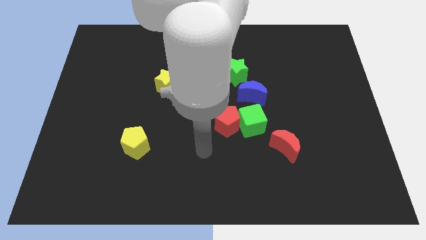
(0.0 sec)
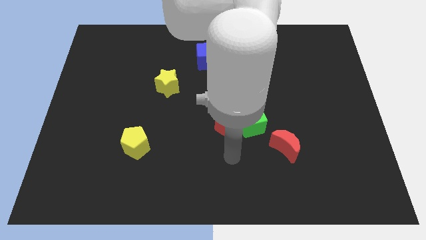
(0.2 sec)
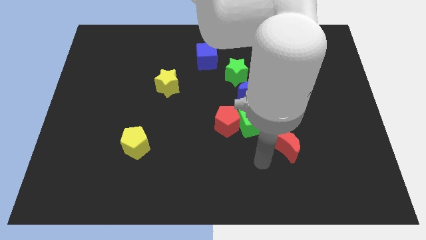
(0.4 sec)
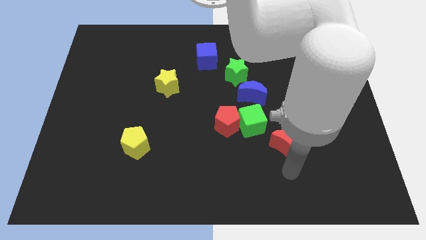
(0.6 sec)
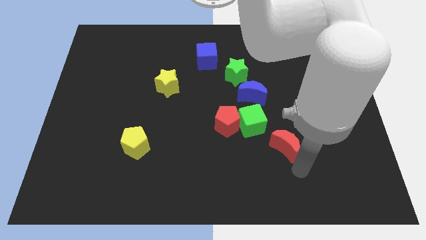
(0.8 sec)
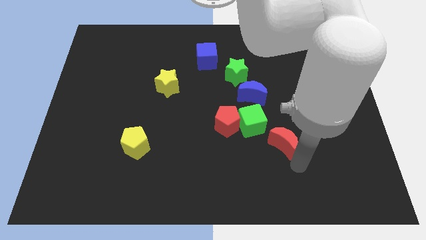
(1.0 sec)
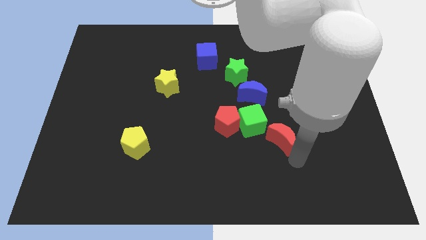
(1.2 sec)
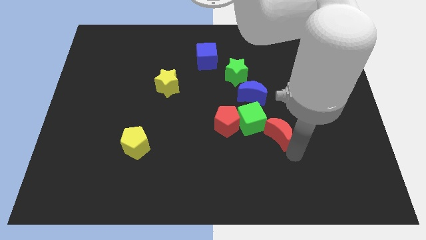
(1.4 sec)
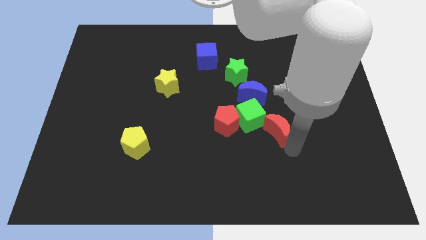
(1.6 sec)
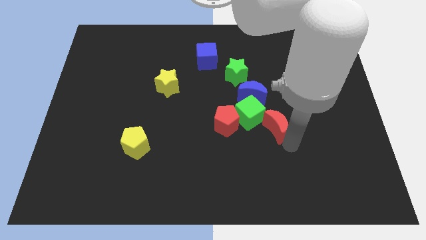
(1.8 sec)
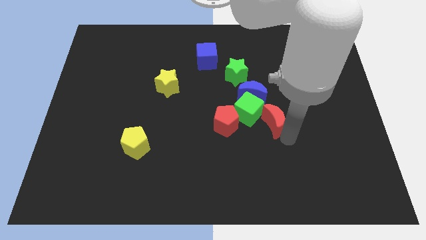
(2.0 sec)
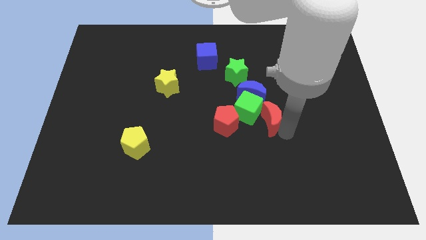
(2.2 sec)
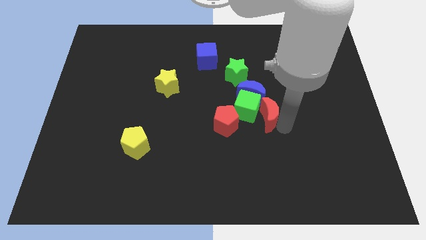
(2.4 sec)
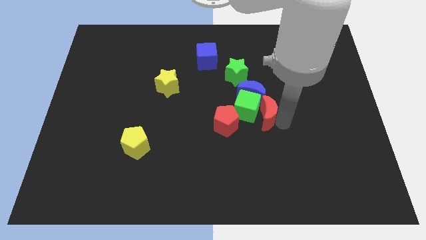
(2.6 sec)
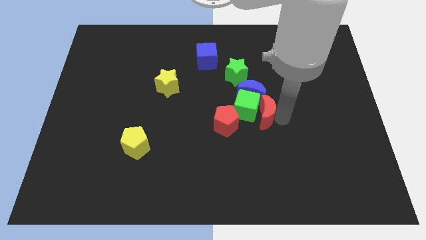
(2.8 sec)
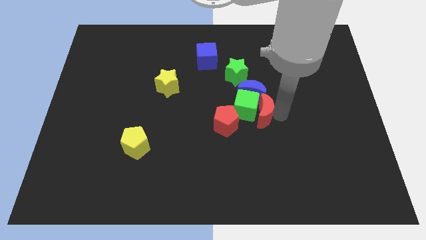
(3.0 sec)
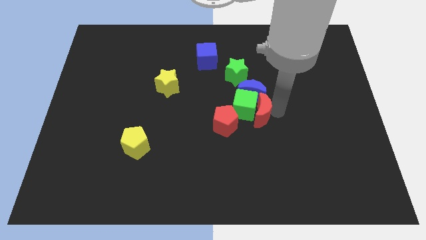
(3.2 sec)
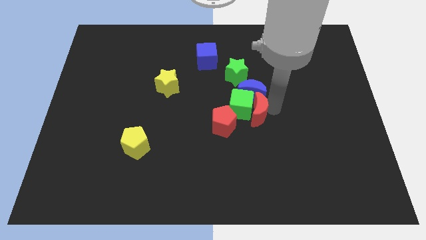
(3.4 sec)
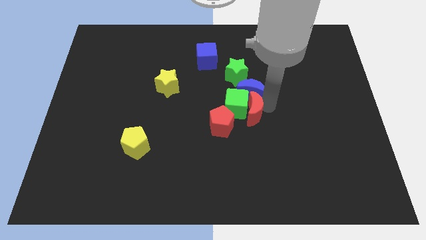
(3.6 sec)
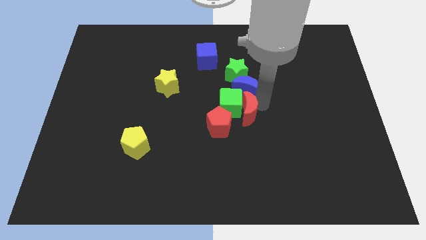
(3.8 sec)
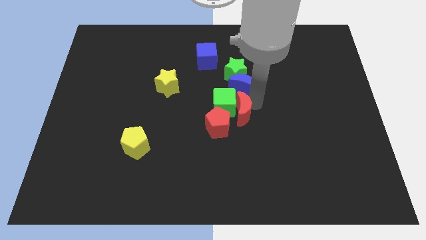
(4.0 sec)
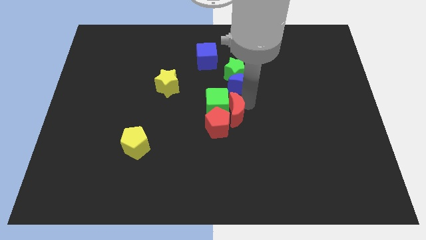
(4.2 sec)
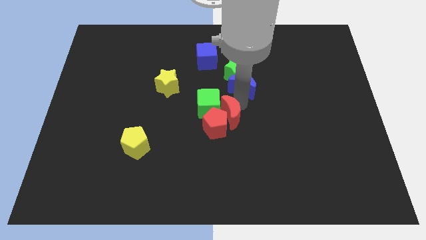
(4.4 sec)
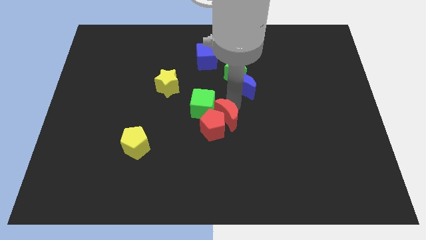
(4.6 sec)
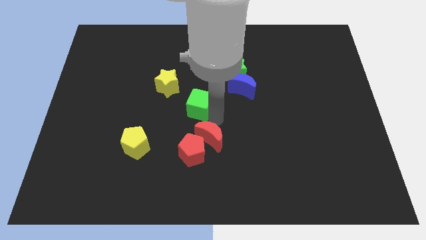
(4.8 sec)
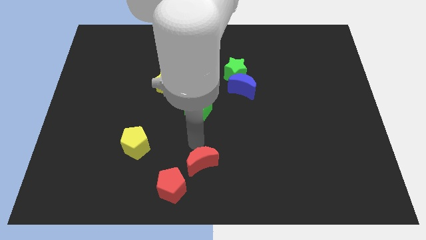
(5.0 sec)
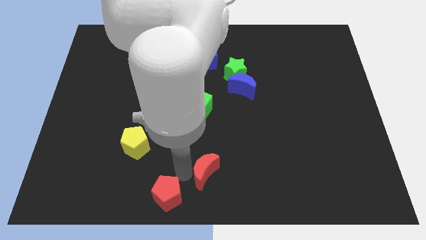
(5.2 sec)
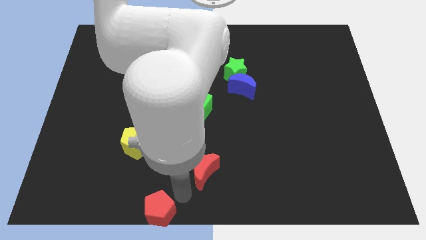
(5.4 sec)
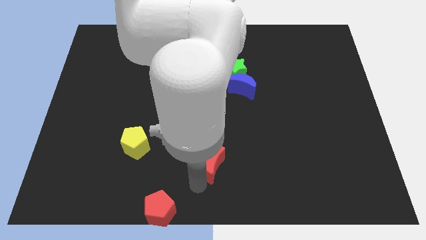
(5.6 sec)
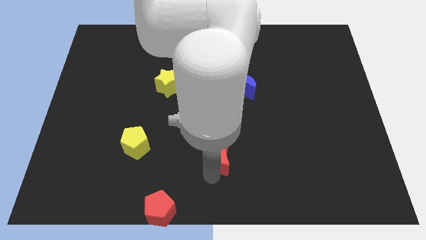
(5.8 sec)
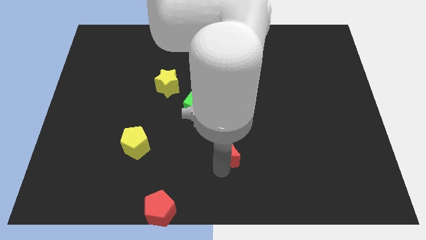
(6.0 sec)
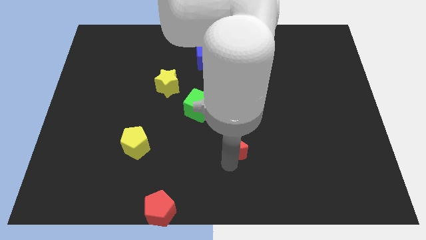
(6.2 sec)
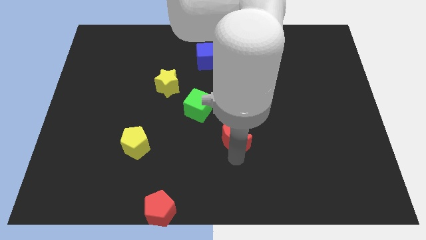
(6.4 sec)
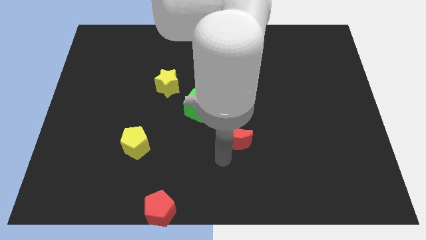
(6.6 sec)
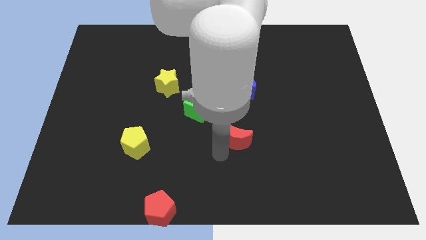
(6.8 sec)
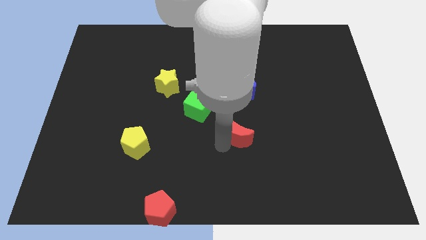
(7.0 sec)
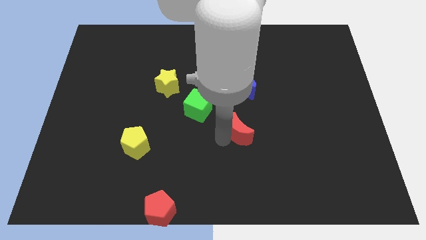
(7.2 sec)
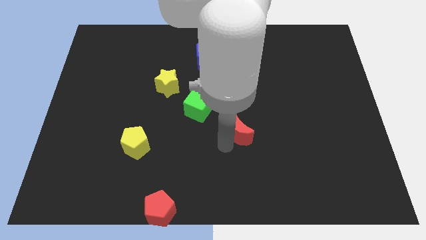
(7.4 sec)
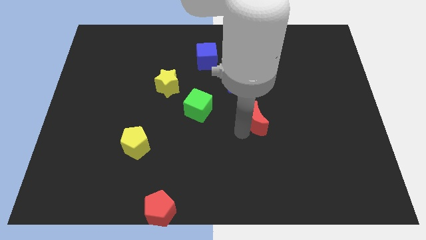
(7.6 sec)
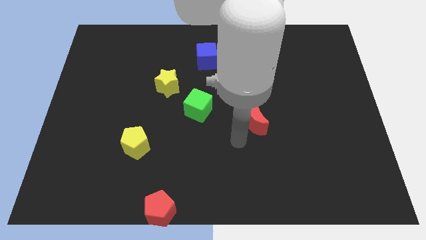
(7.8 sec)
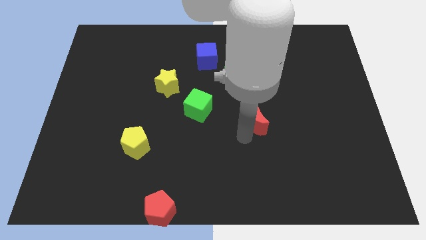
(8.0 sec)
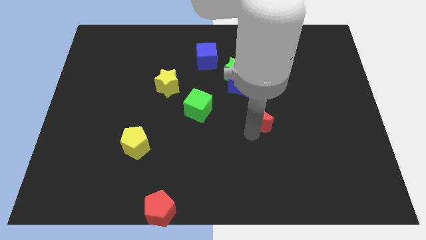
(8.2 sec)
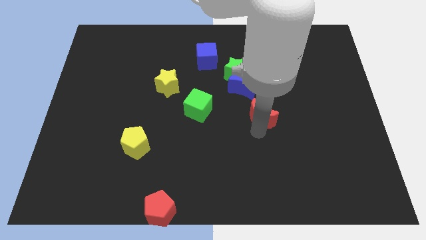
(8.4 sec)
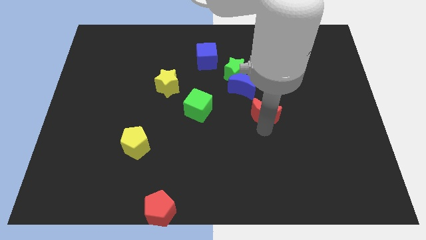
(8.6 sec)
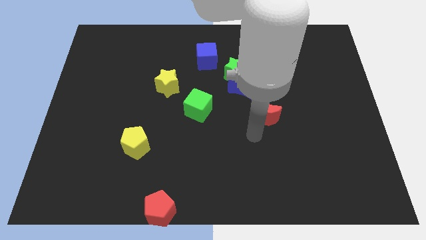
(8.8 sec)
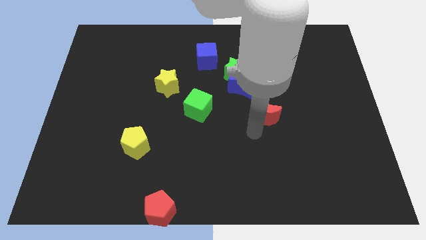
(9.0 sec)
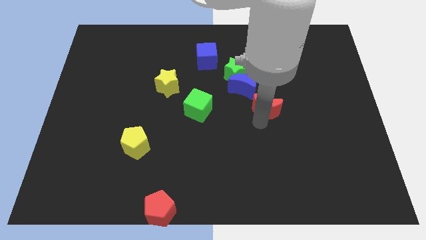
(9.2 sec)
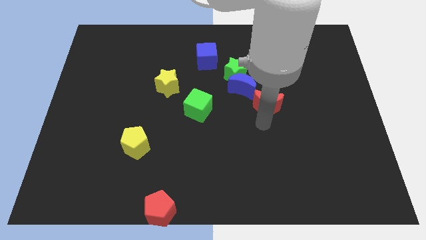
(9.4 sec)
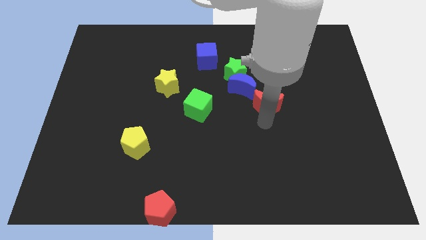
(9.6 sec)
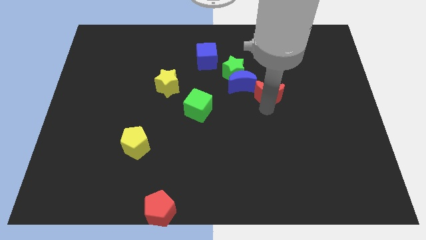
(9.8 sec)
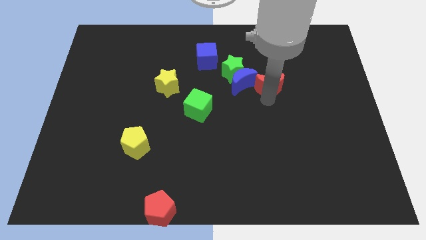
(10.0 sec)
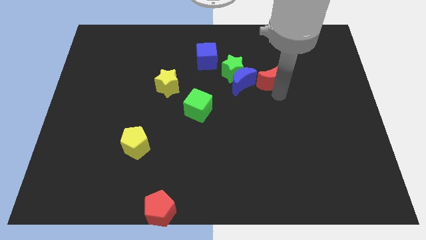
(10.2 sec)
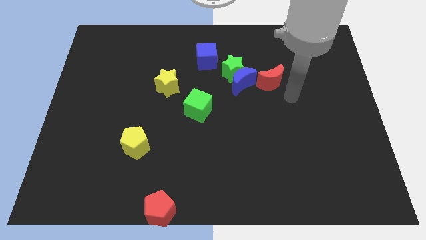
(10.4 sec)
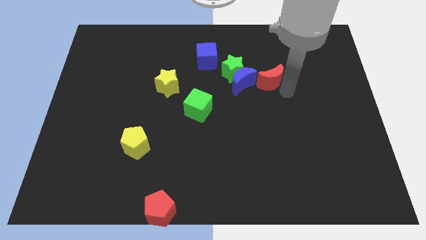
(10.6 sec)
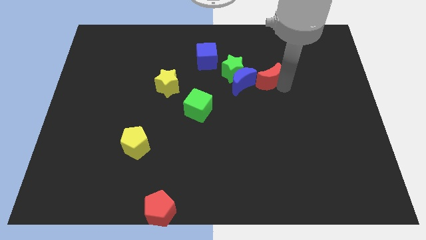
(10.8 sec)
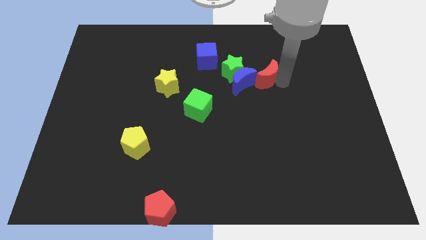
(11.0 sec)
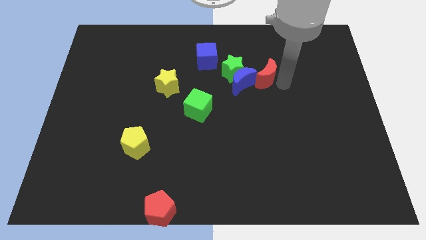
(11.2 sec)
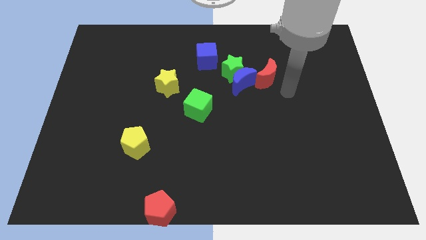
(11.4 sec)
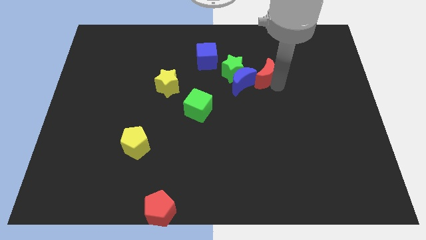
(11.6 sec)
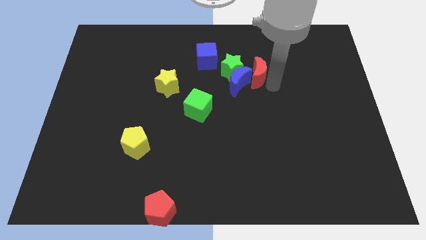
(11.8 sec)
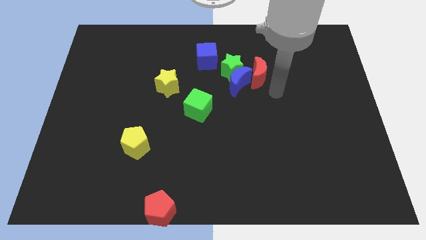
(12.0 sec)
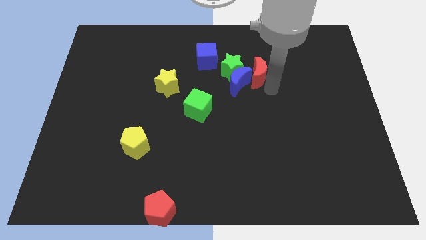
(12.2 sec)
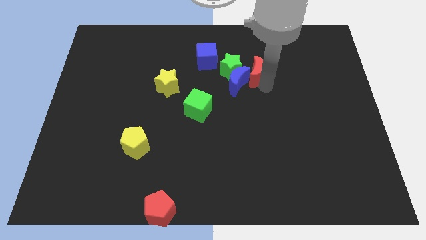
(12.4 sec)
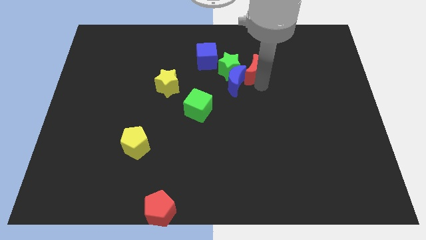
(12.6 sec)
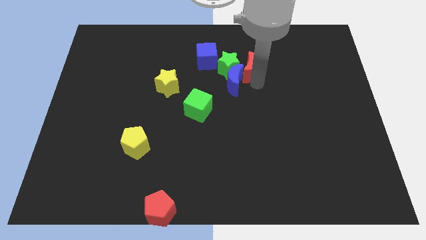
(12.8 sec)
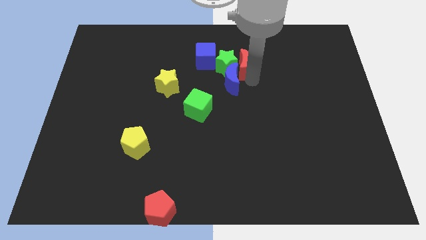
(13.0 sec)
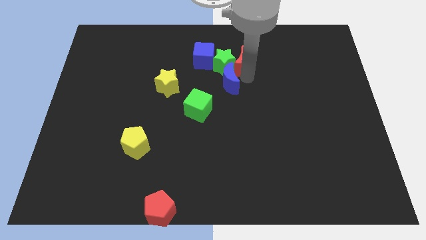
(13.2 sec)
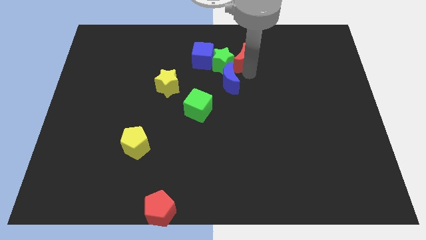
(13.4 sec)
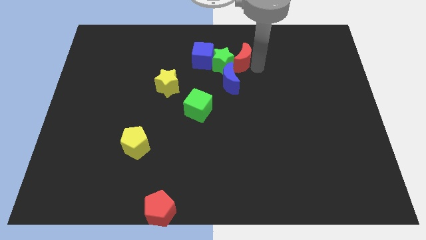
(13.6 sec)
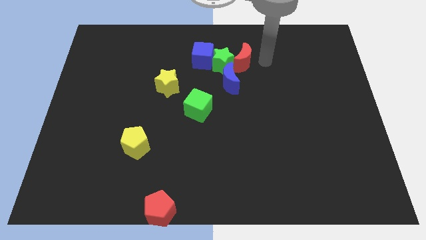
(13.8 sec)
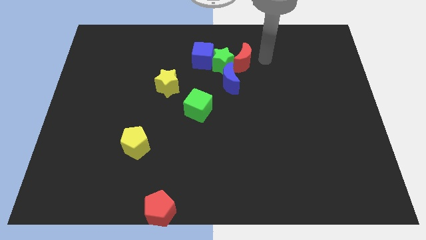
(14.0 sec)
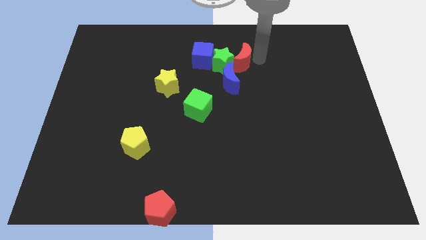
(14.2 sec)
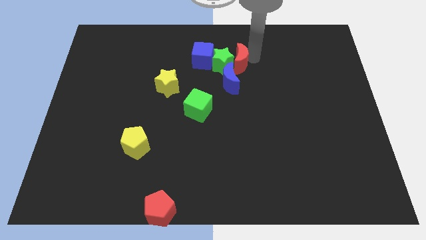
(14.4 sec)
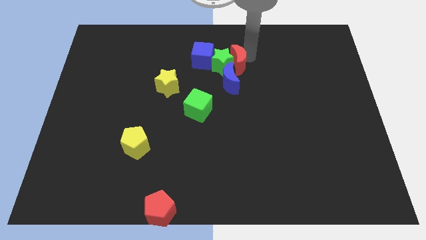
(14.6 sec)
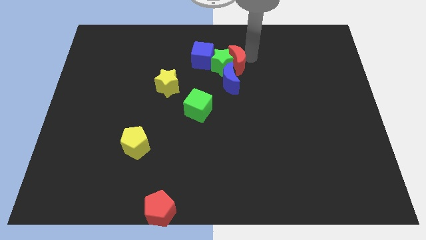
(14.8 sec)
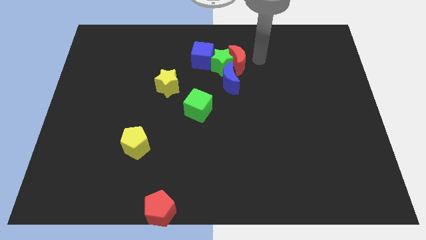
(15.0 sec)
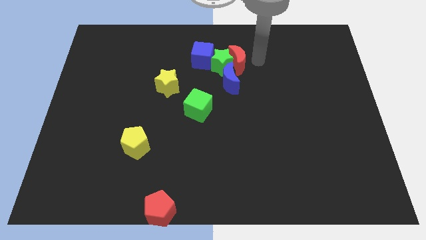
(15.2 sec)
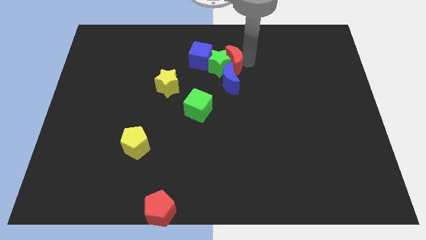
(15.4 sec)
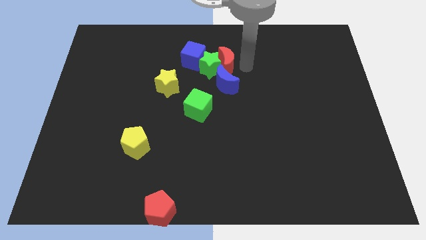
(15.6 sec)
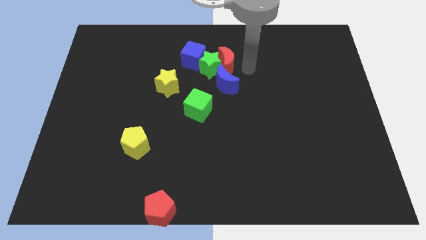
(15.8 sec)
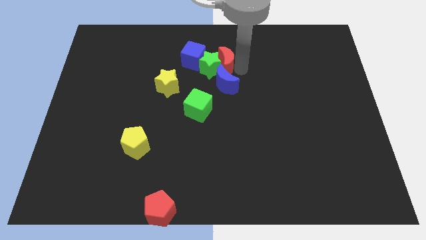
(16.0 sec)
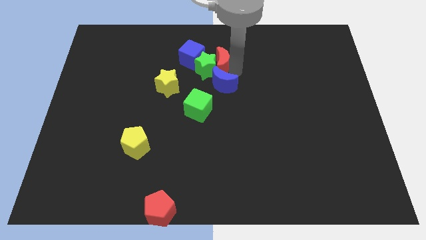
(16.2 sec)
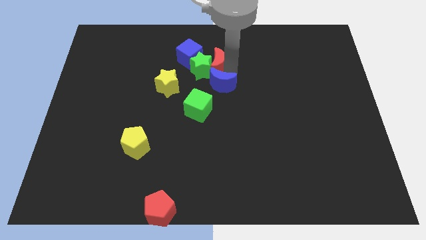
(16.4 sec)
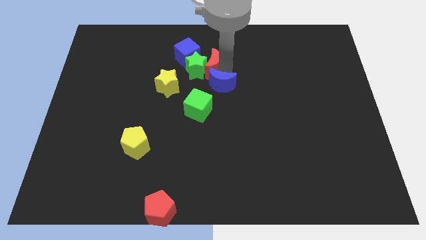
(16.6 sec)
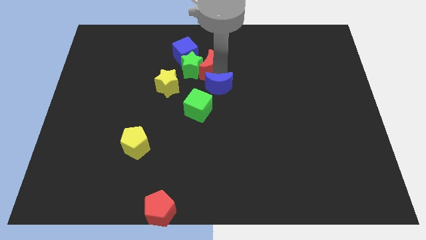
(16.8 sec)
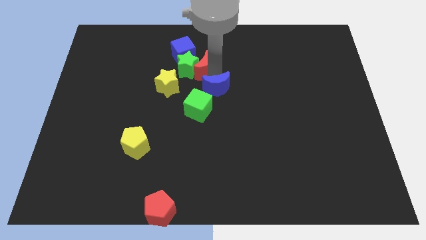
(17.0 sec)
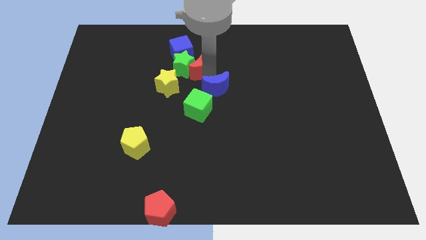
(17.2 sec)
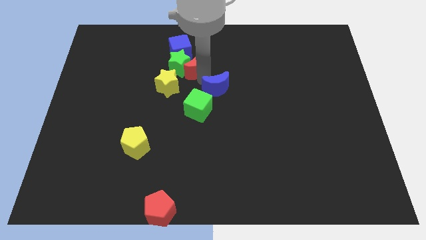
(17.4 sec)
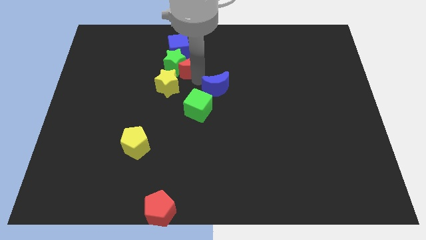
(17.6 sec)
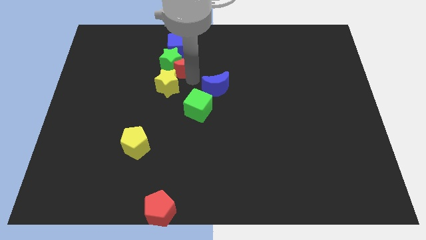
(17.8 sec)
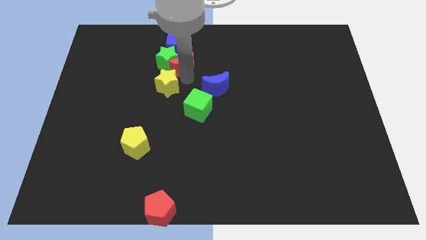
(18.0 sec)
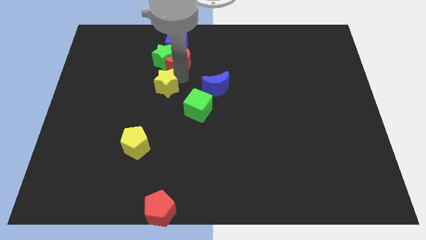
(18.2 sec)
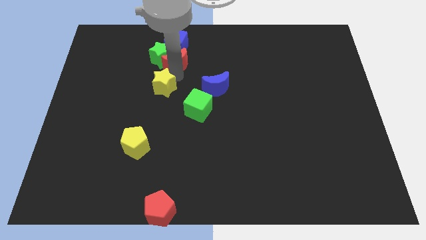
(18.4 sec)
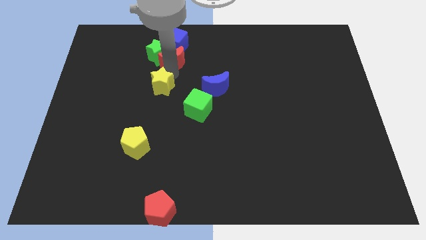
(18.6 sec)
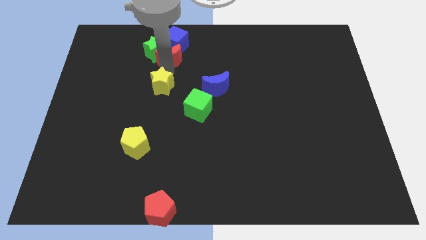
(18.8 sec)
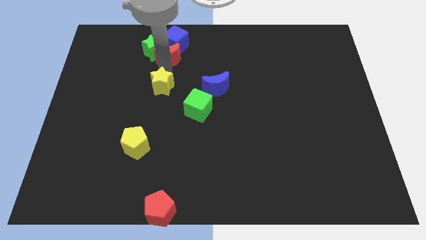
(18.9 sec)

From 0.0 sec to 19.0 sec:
move the red moon next to the blue cube
